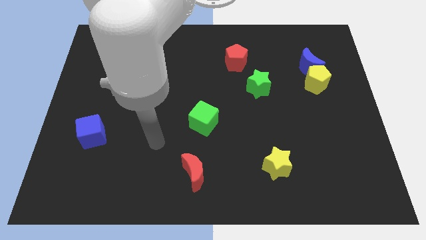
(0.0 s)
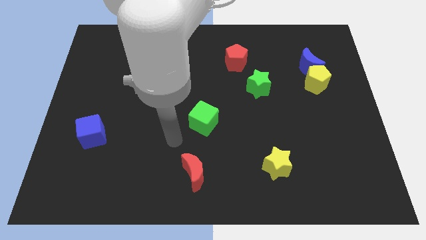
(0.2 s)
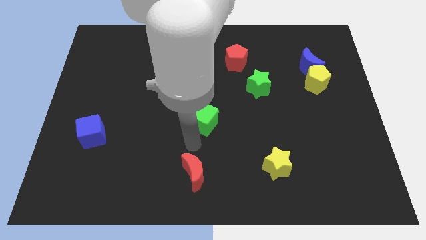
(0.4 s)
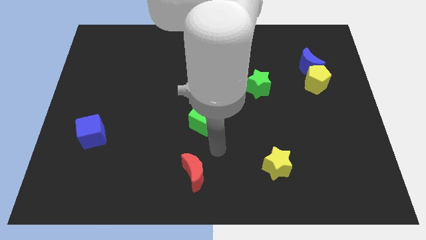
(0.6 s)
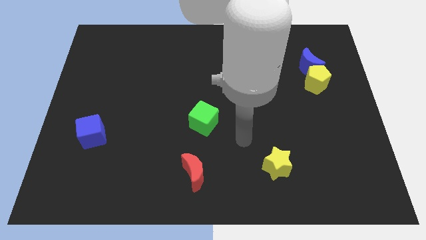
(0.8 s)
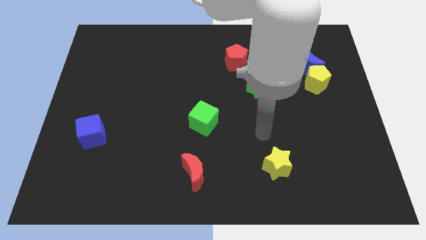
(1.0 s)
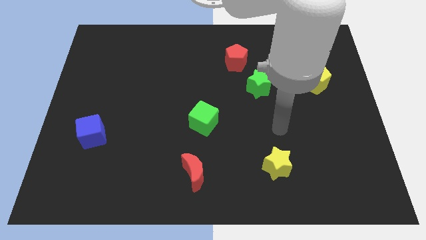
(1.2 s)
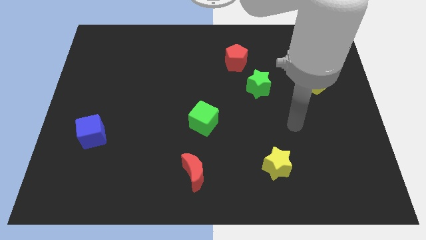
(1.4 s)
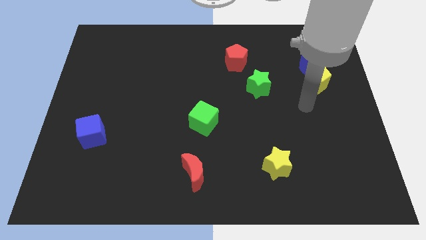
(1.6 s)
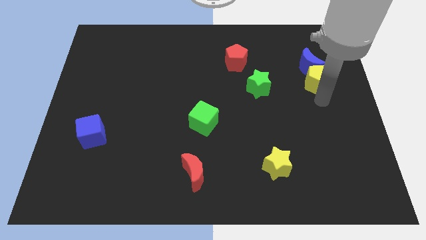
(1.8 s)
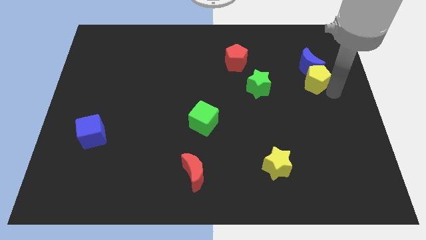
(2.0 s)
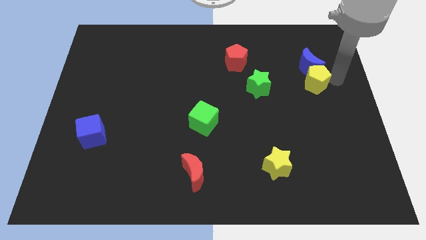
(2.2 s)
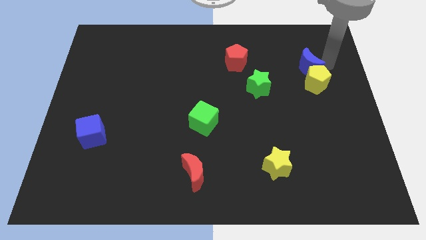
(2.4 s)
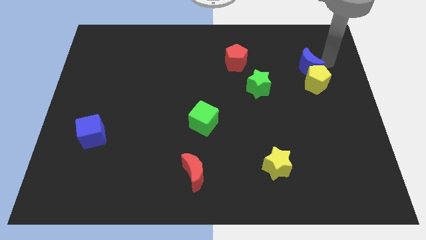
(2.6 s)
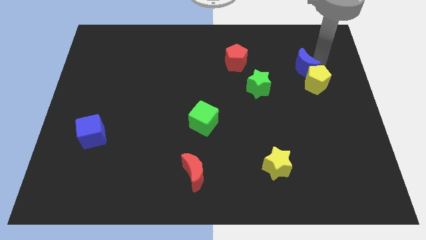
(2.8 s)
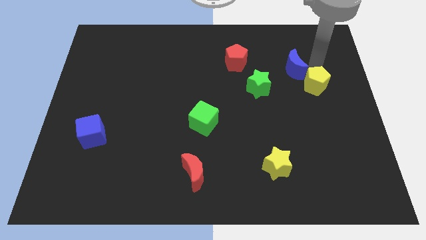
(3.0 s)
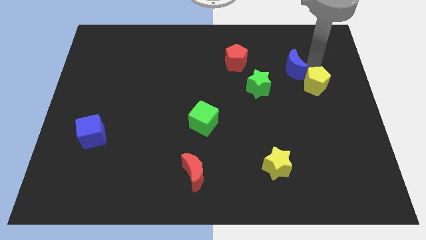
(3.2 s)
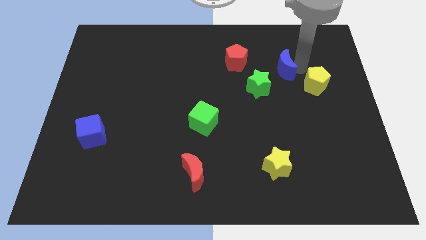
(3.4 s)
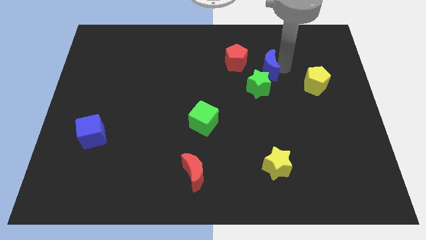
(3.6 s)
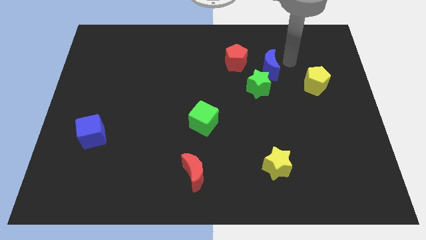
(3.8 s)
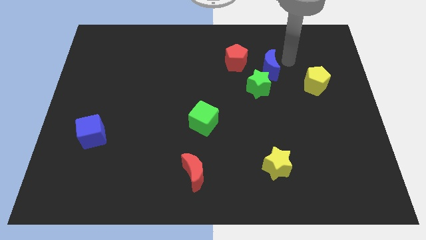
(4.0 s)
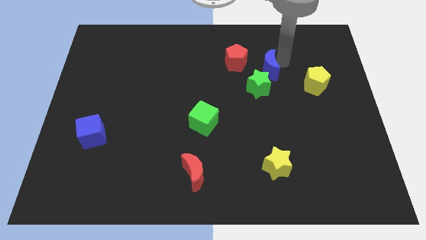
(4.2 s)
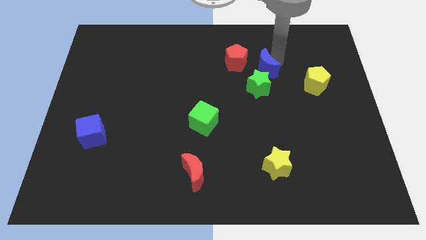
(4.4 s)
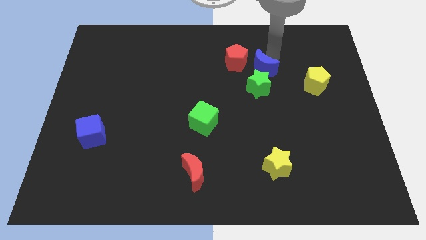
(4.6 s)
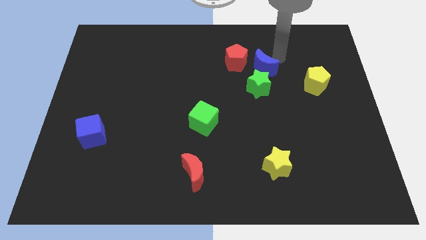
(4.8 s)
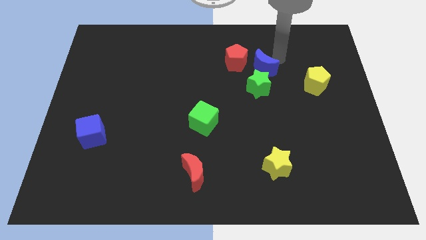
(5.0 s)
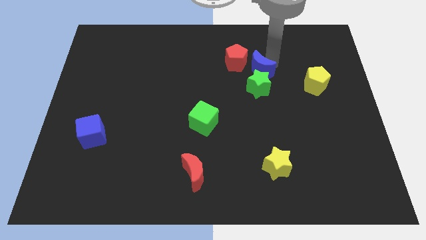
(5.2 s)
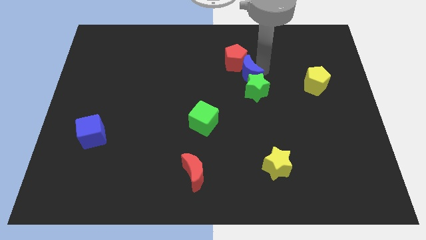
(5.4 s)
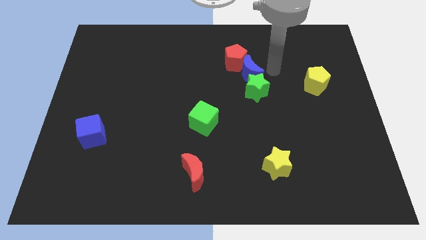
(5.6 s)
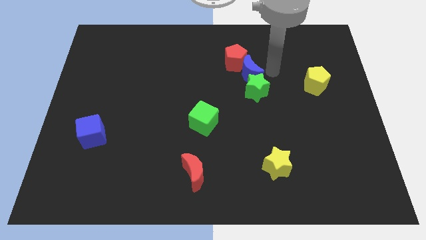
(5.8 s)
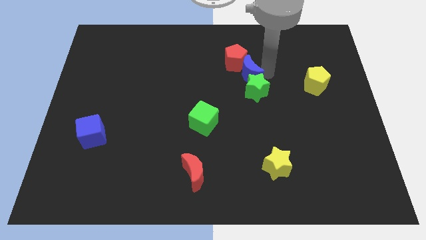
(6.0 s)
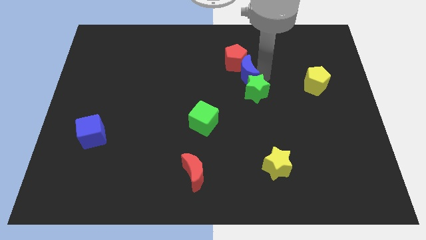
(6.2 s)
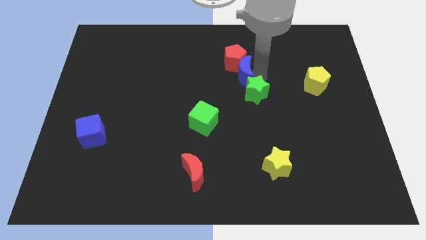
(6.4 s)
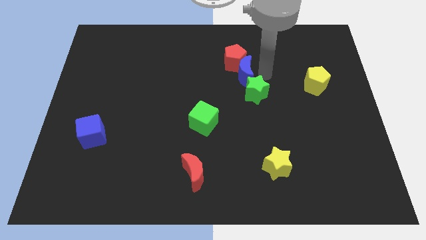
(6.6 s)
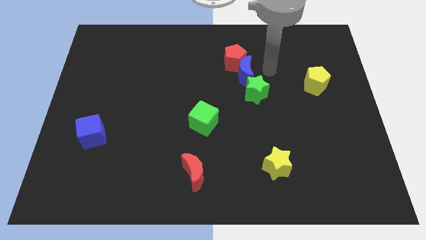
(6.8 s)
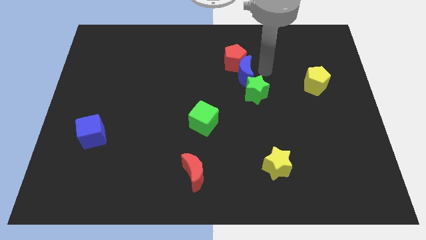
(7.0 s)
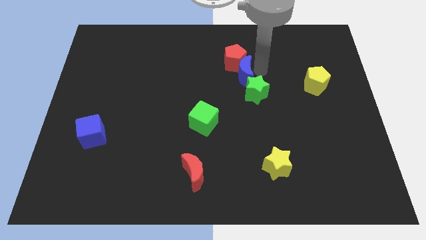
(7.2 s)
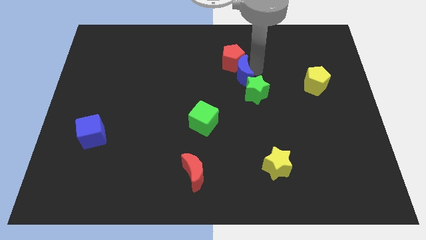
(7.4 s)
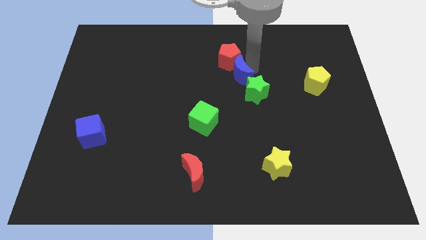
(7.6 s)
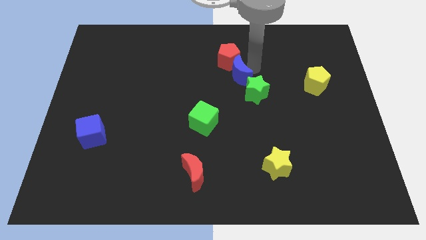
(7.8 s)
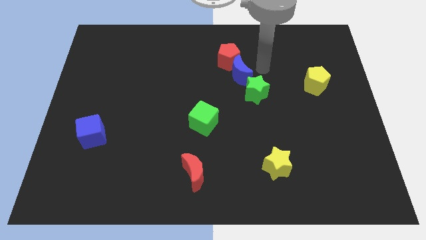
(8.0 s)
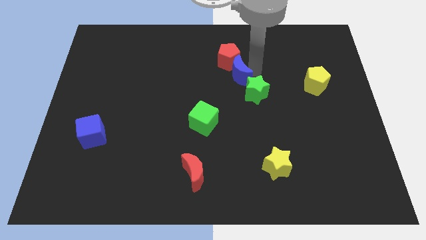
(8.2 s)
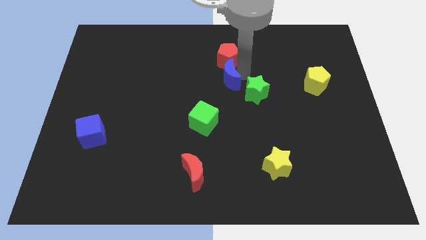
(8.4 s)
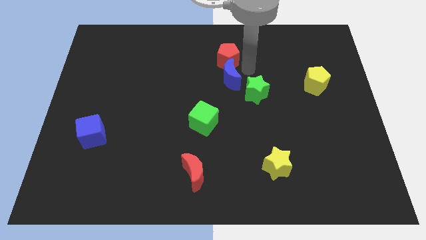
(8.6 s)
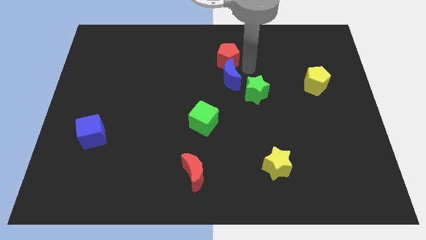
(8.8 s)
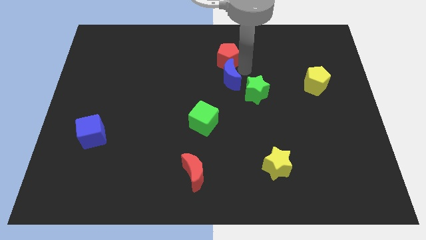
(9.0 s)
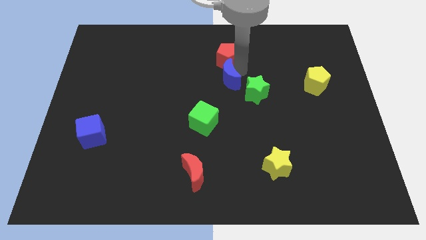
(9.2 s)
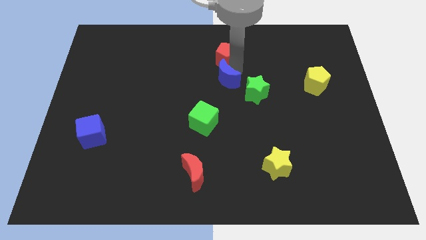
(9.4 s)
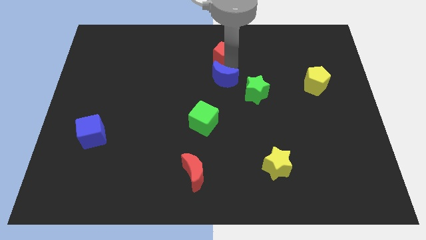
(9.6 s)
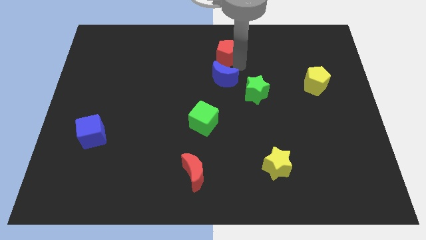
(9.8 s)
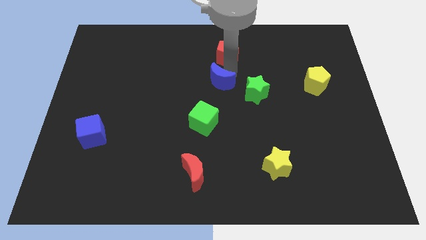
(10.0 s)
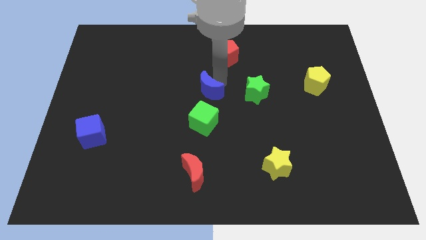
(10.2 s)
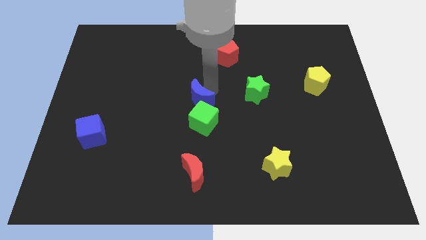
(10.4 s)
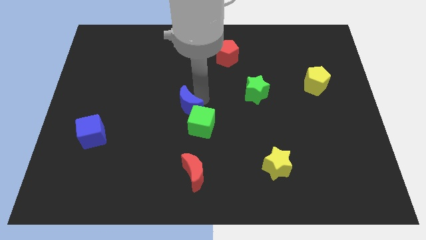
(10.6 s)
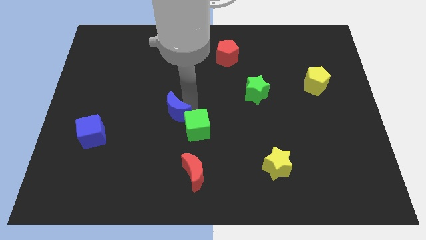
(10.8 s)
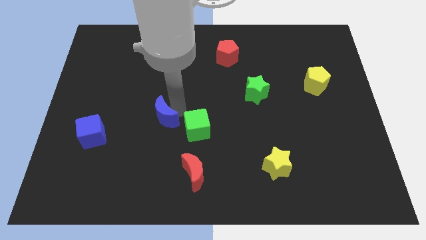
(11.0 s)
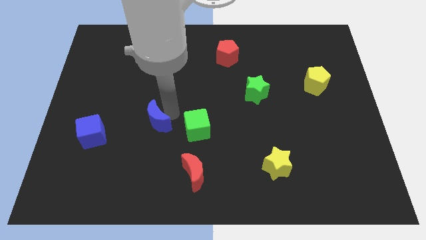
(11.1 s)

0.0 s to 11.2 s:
slide the blue moon just right of the blue cube

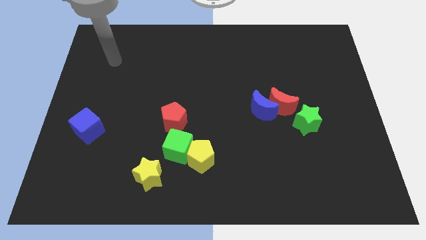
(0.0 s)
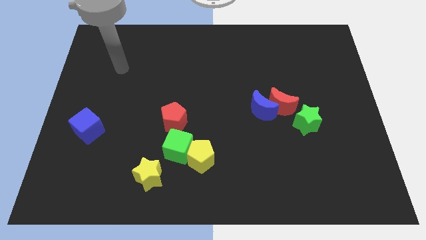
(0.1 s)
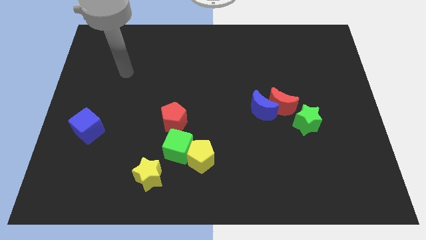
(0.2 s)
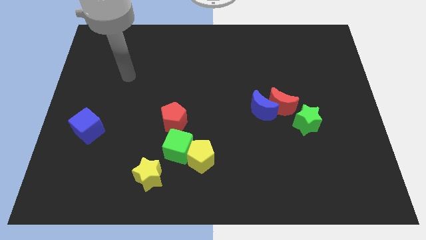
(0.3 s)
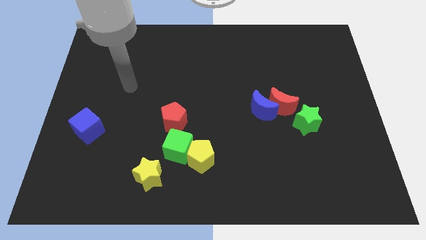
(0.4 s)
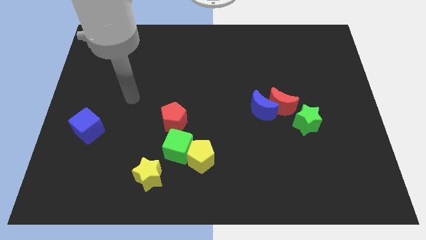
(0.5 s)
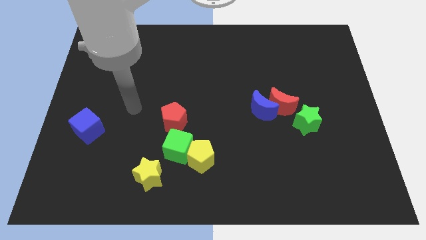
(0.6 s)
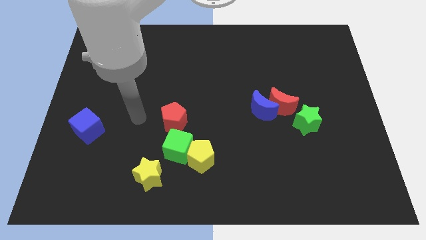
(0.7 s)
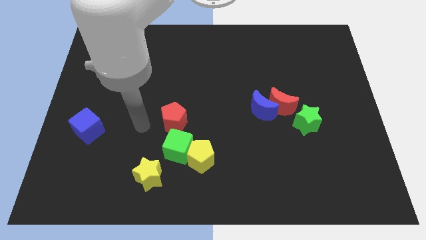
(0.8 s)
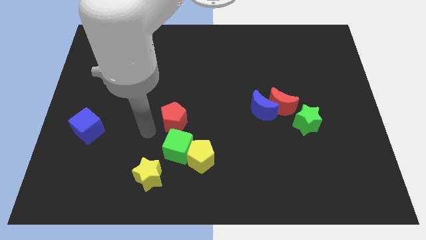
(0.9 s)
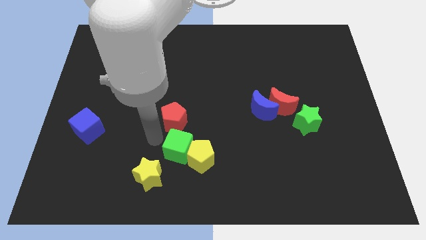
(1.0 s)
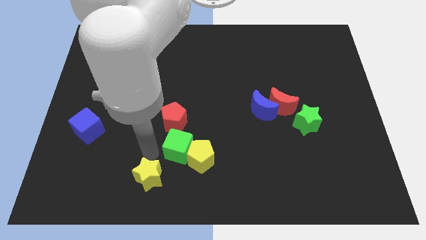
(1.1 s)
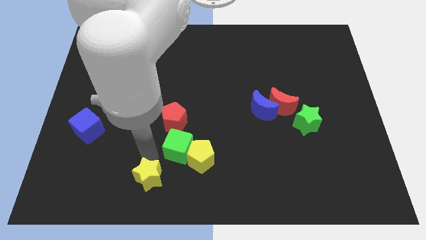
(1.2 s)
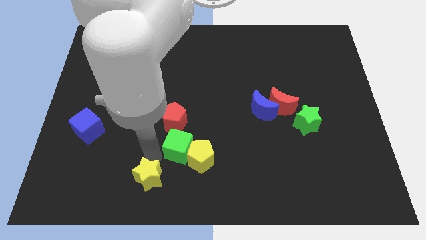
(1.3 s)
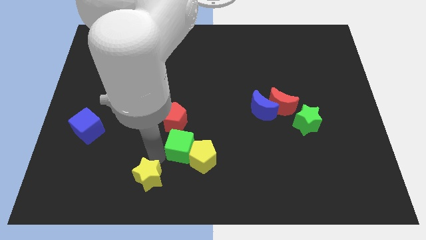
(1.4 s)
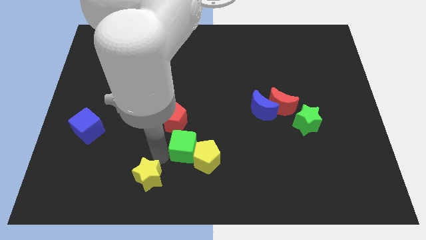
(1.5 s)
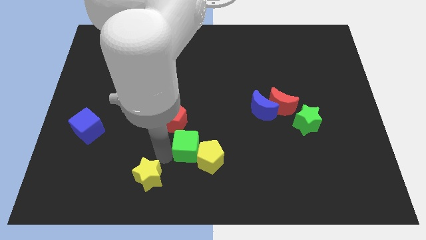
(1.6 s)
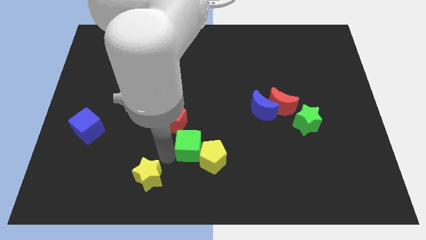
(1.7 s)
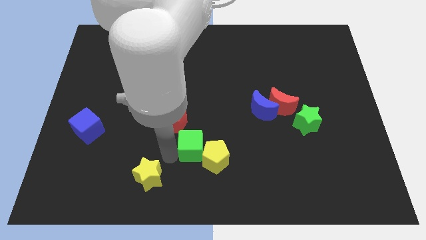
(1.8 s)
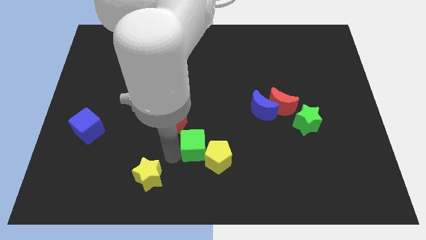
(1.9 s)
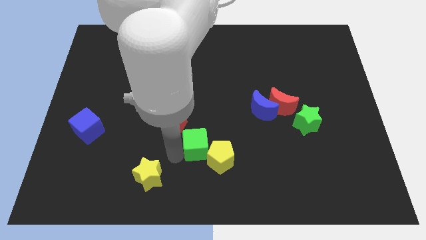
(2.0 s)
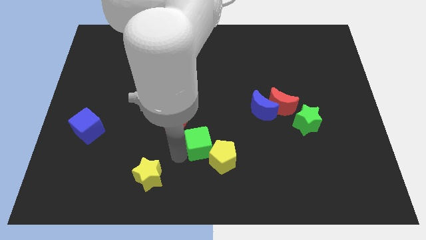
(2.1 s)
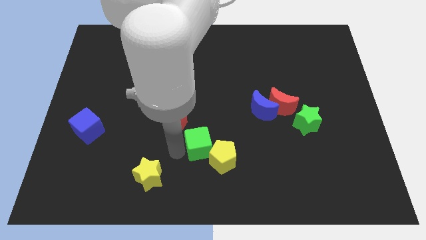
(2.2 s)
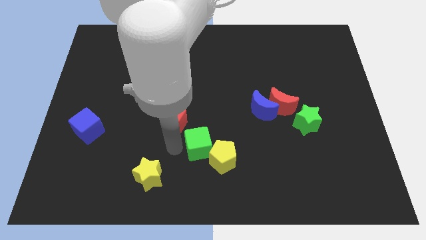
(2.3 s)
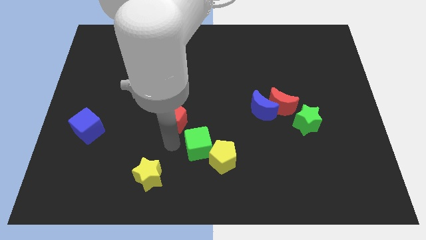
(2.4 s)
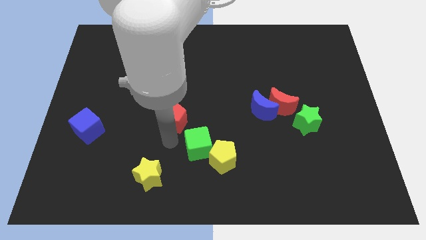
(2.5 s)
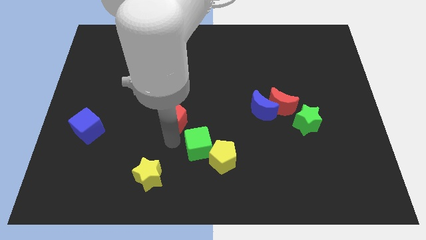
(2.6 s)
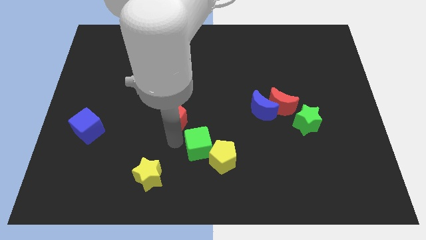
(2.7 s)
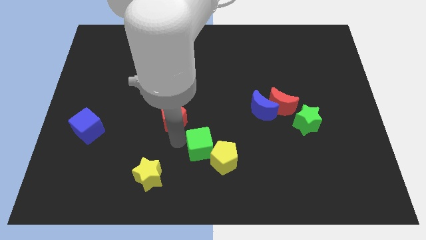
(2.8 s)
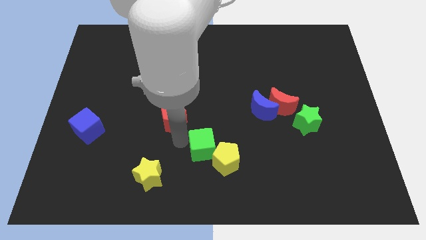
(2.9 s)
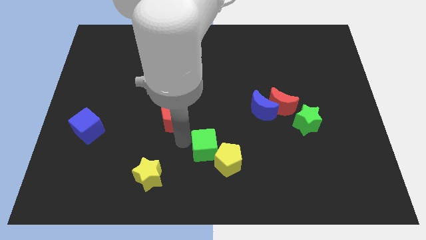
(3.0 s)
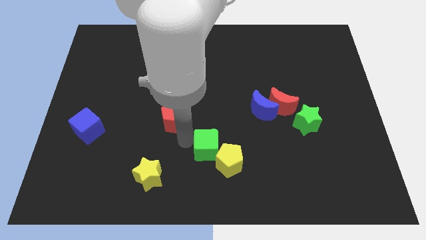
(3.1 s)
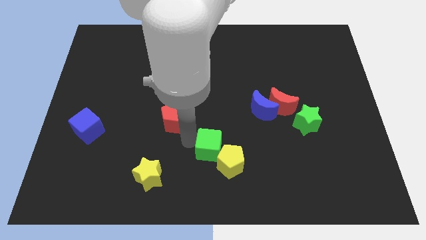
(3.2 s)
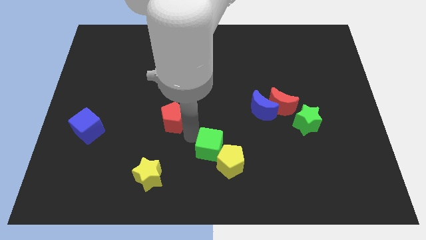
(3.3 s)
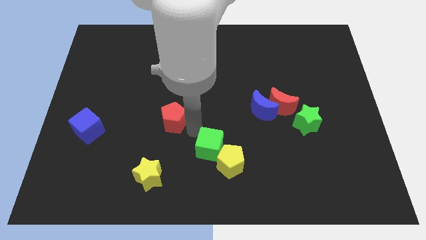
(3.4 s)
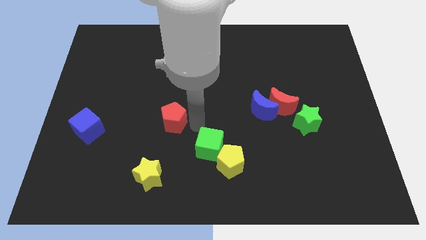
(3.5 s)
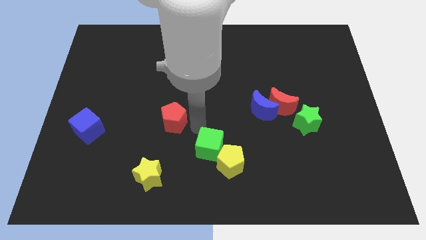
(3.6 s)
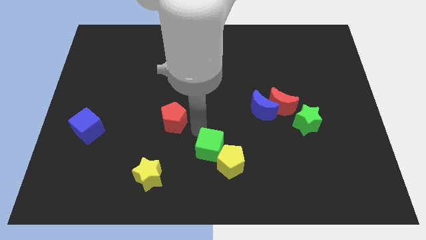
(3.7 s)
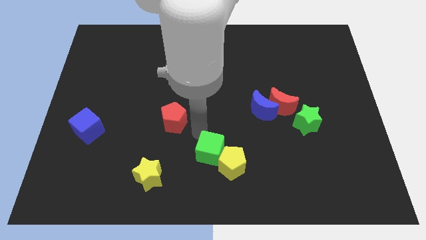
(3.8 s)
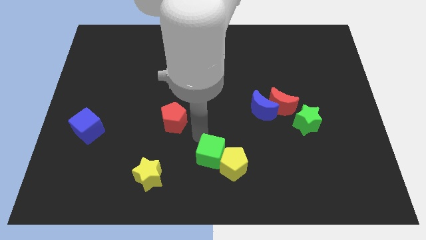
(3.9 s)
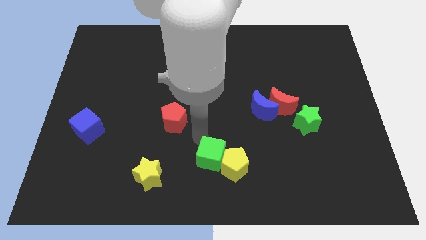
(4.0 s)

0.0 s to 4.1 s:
put the green cube just right of the yellow star
